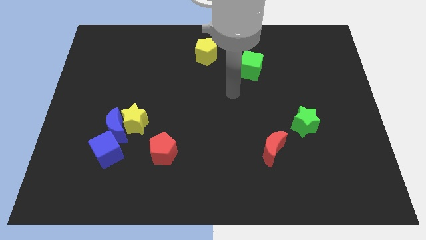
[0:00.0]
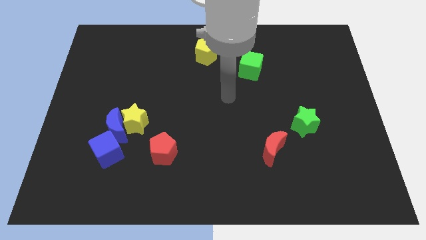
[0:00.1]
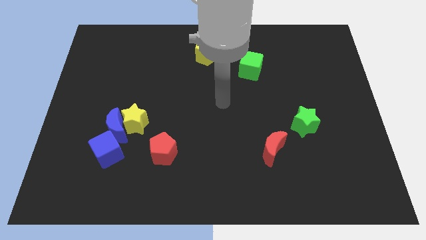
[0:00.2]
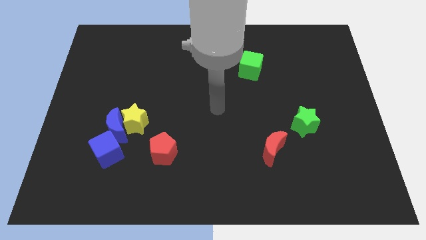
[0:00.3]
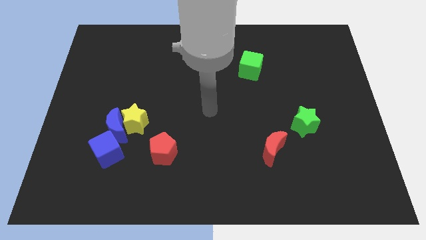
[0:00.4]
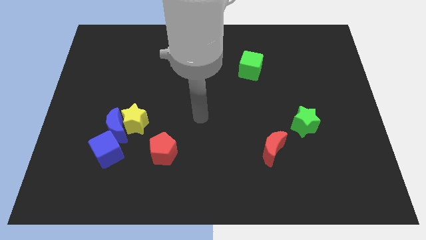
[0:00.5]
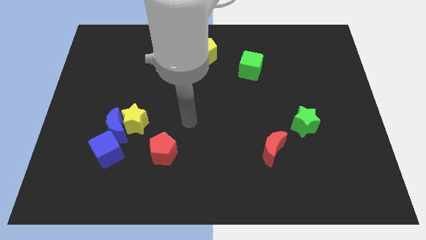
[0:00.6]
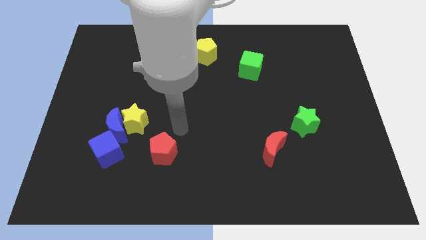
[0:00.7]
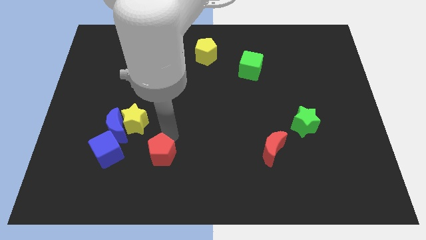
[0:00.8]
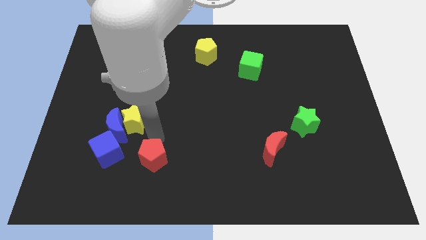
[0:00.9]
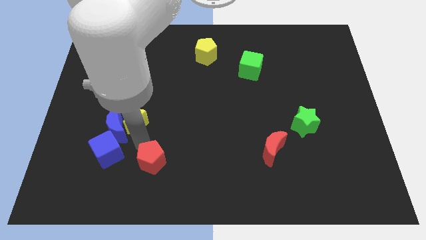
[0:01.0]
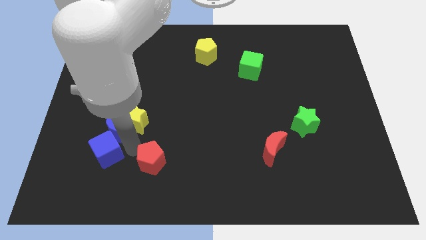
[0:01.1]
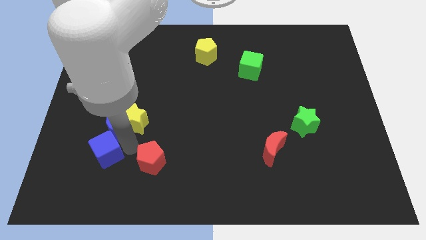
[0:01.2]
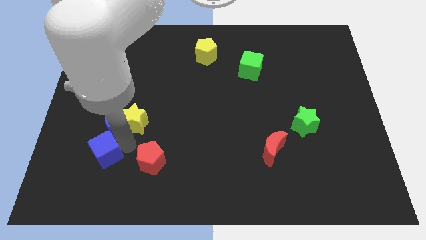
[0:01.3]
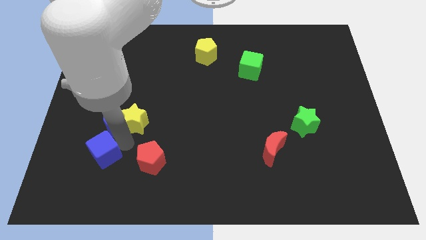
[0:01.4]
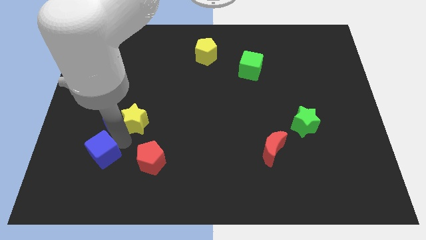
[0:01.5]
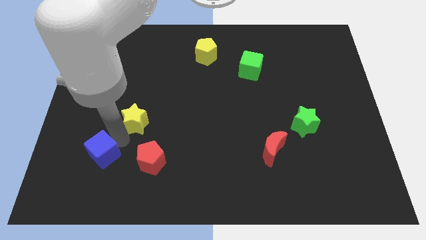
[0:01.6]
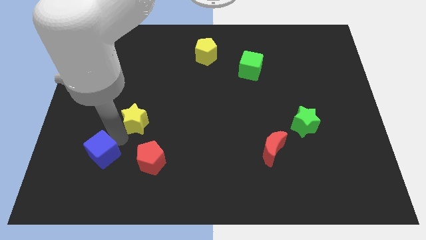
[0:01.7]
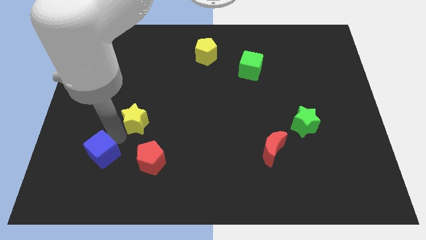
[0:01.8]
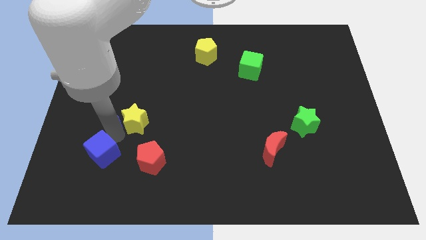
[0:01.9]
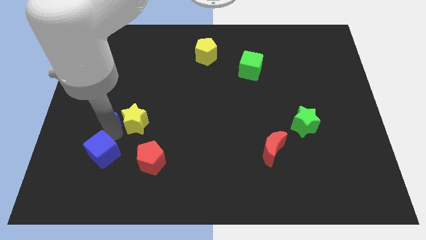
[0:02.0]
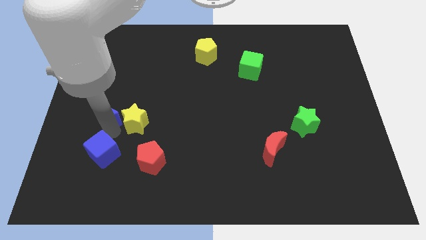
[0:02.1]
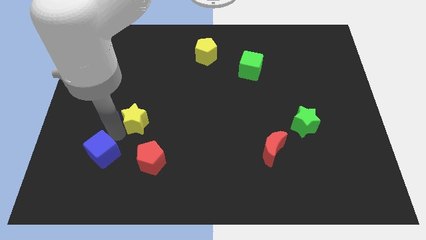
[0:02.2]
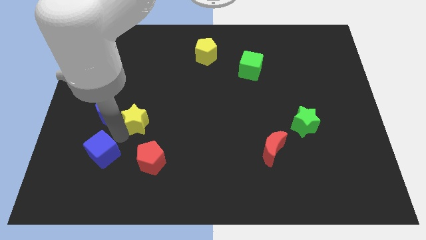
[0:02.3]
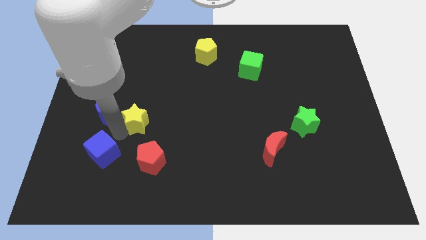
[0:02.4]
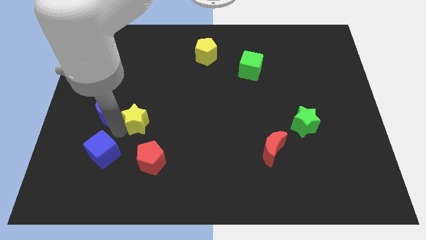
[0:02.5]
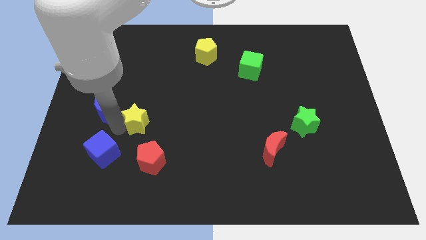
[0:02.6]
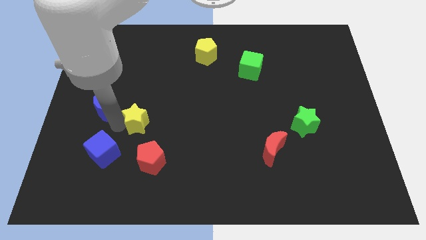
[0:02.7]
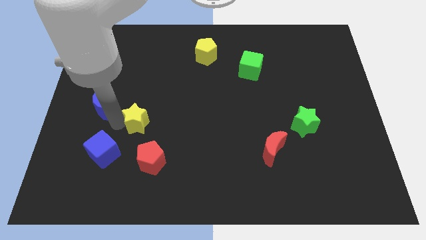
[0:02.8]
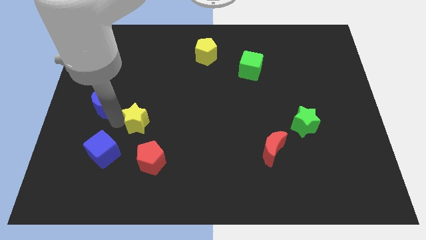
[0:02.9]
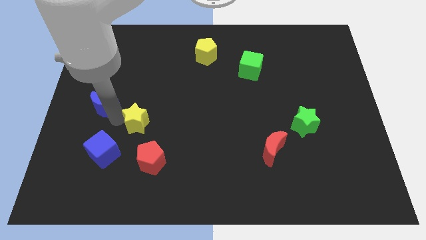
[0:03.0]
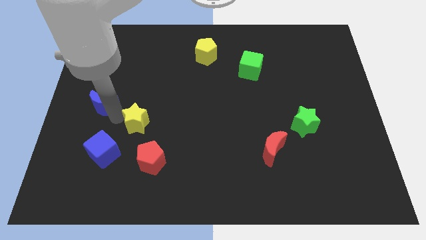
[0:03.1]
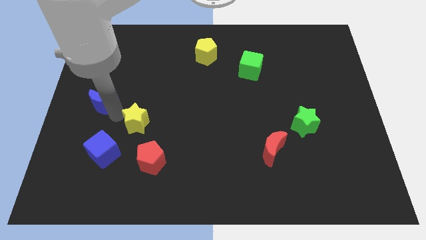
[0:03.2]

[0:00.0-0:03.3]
pull the blue moon apart from the yellow star and blue cube

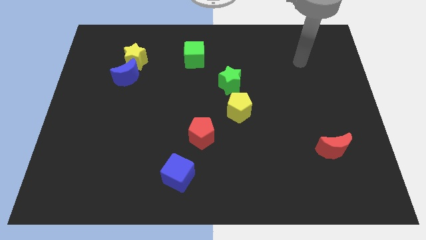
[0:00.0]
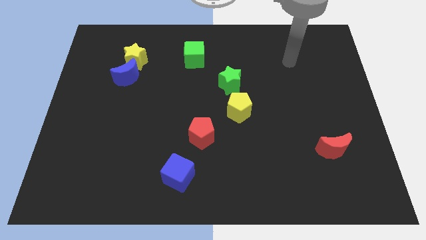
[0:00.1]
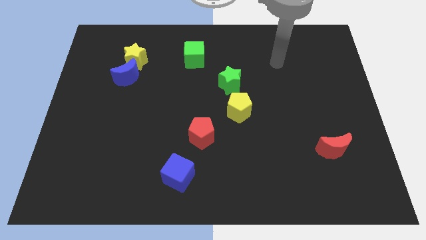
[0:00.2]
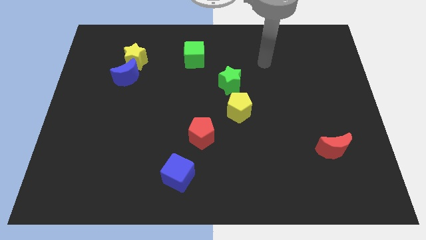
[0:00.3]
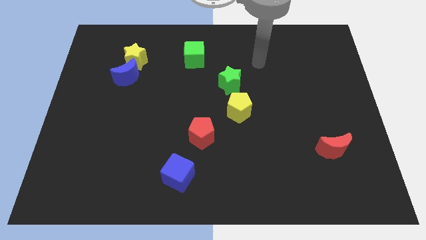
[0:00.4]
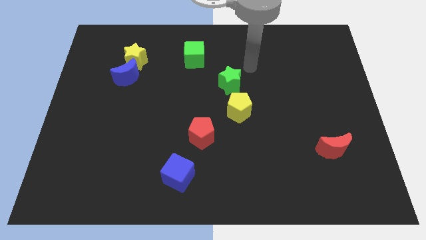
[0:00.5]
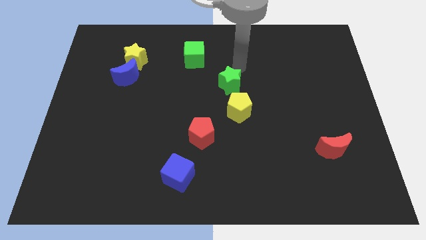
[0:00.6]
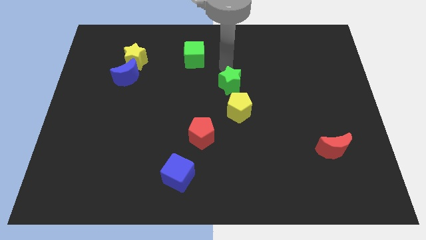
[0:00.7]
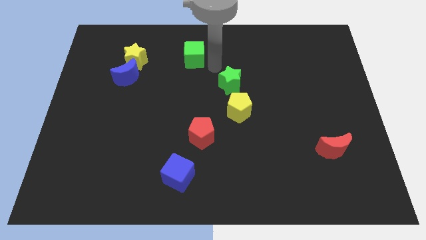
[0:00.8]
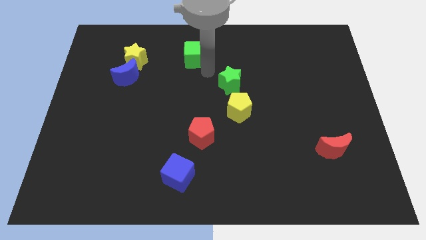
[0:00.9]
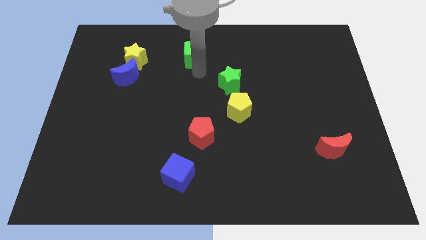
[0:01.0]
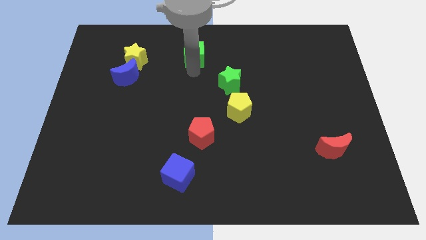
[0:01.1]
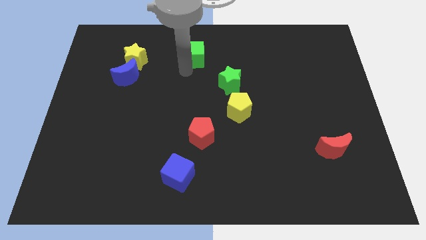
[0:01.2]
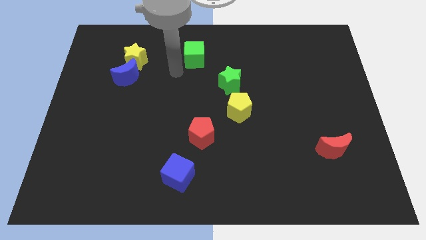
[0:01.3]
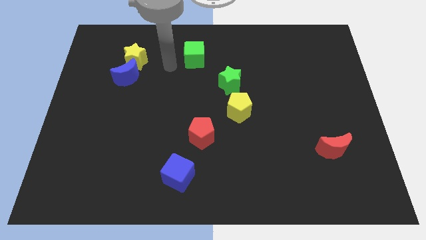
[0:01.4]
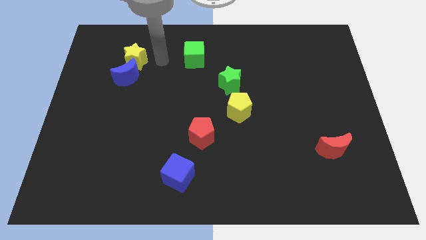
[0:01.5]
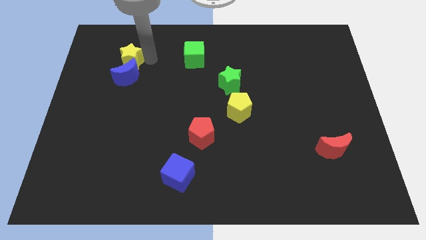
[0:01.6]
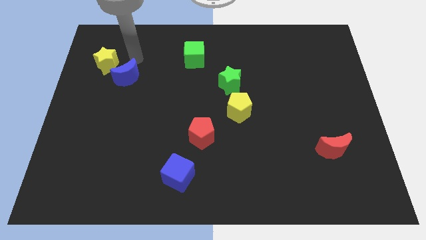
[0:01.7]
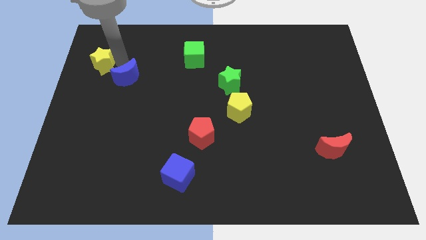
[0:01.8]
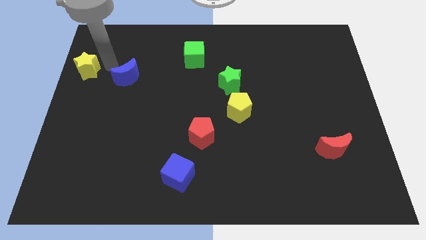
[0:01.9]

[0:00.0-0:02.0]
move the blue moon away from the yellow star

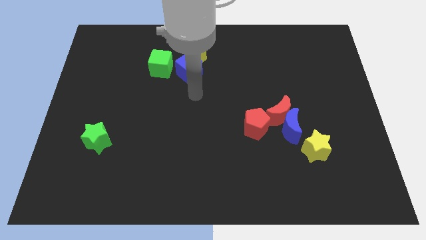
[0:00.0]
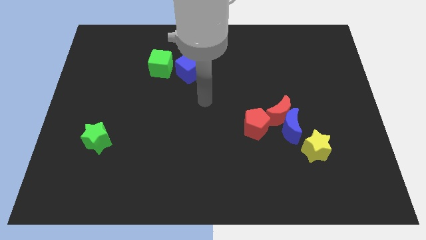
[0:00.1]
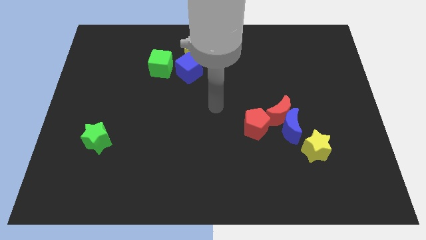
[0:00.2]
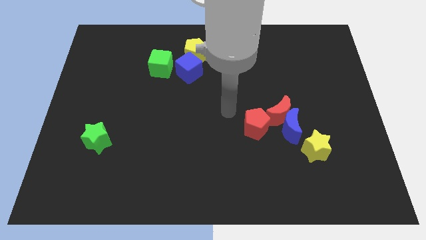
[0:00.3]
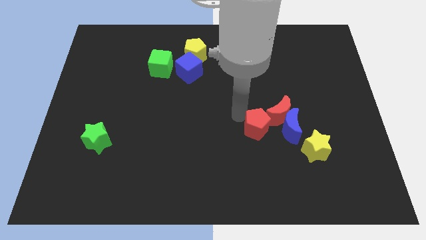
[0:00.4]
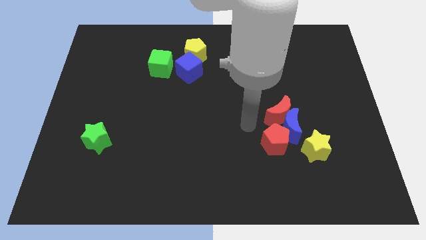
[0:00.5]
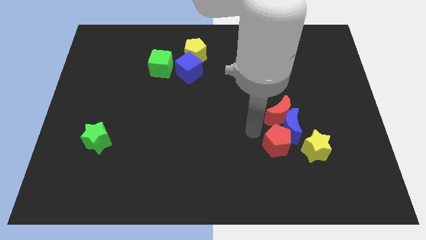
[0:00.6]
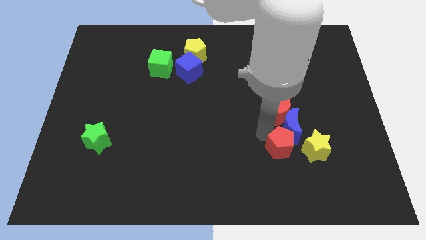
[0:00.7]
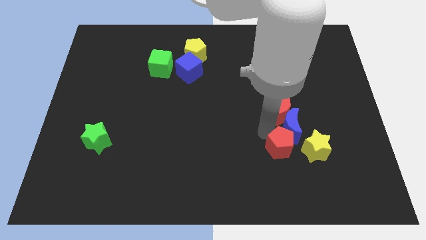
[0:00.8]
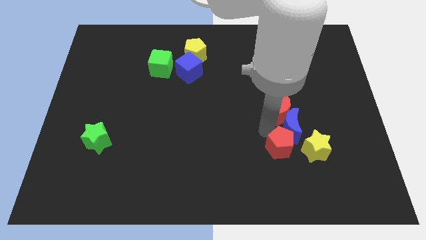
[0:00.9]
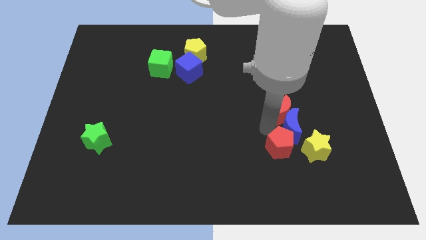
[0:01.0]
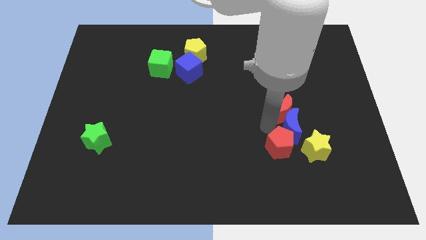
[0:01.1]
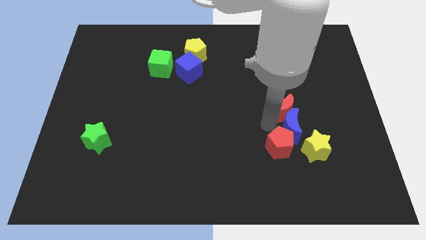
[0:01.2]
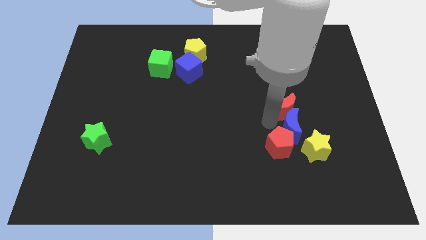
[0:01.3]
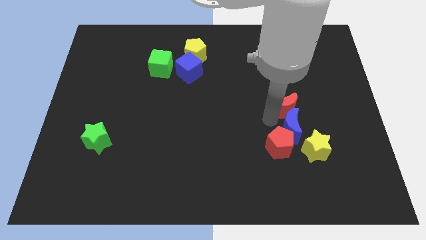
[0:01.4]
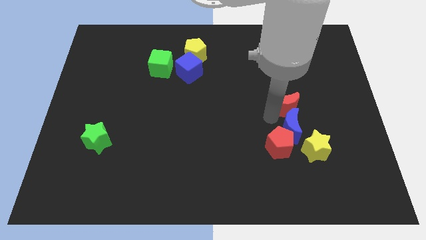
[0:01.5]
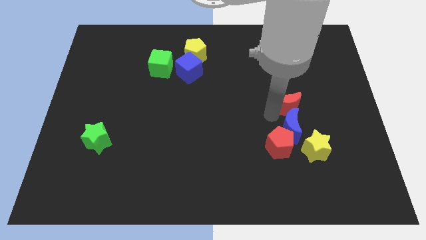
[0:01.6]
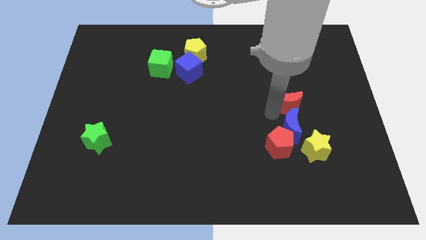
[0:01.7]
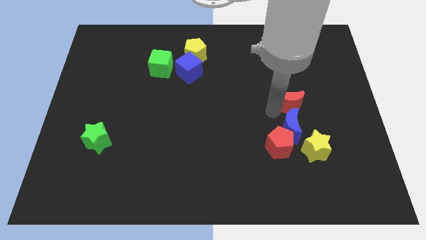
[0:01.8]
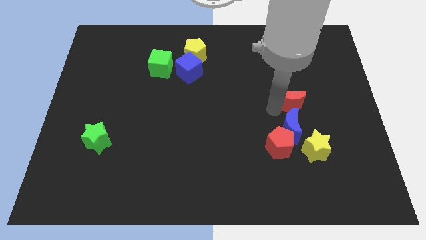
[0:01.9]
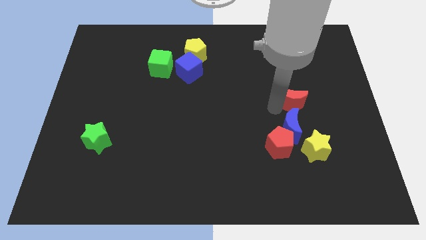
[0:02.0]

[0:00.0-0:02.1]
pull the red moon apart from the blue moon and red pentagon

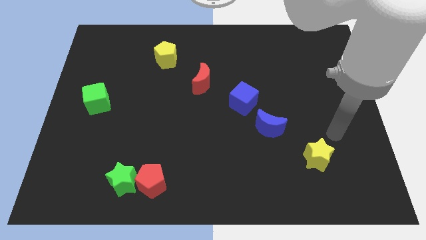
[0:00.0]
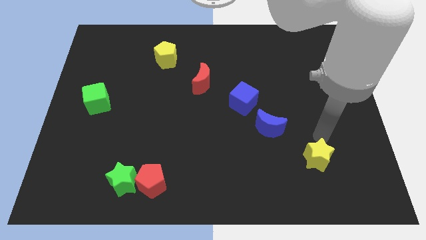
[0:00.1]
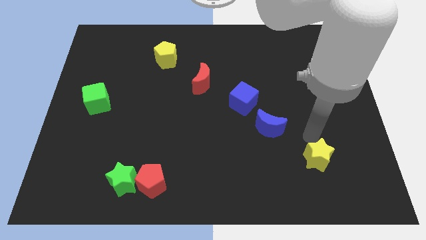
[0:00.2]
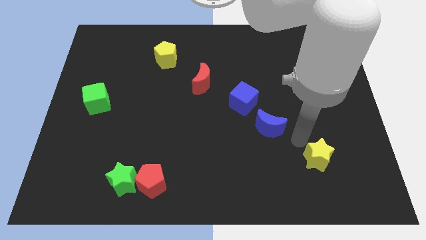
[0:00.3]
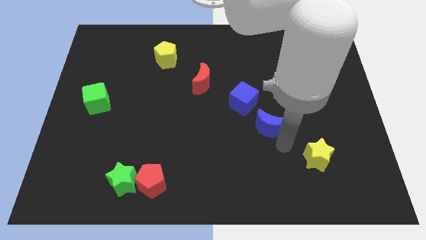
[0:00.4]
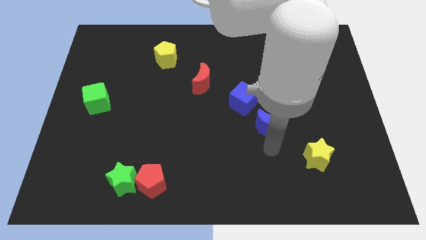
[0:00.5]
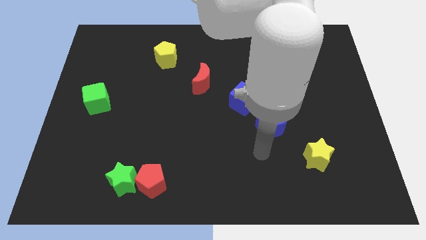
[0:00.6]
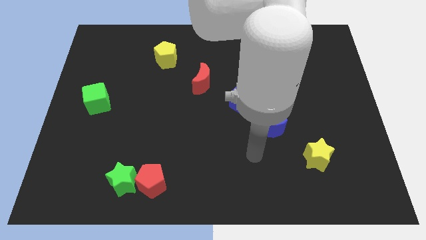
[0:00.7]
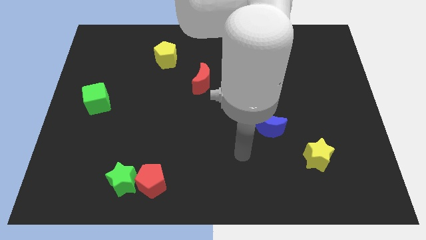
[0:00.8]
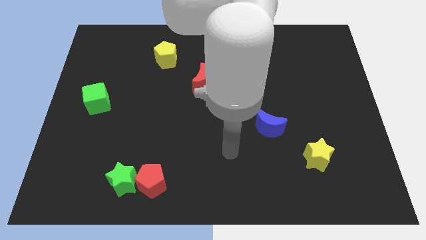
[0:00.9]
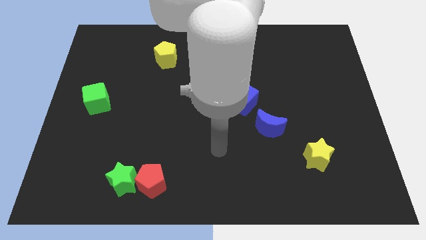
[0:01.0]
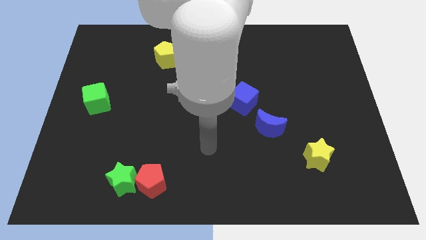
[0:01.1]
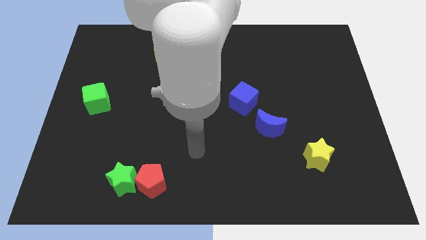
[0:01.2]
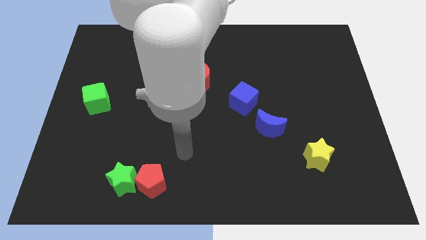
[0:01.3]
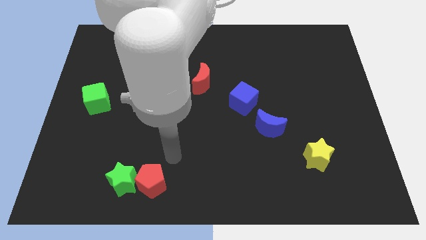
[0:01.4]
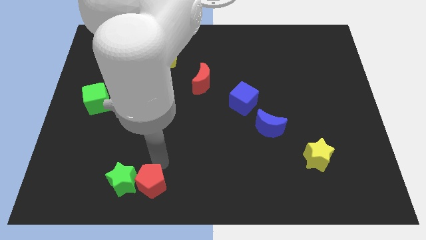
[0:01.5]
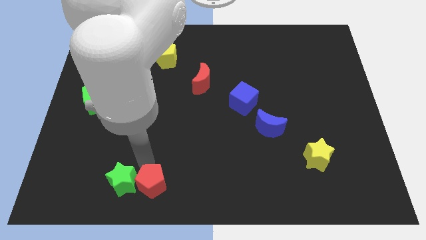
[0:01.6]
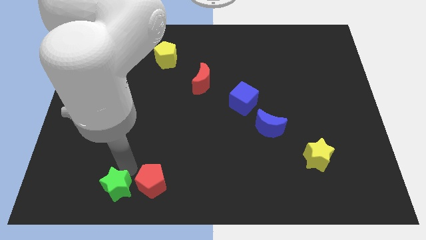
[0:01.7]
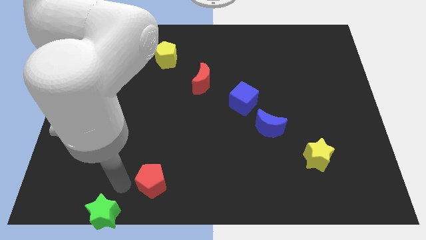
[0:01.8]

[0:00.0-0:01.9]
move the red pentagon away from the green star
